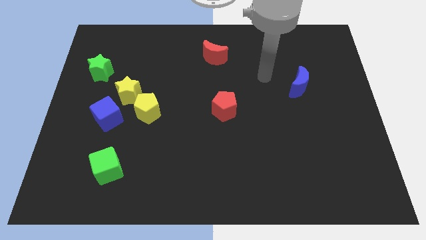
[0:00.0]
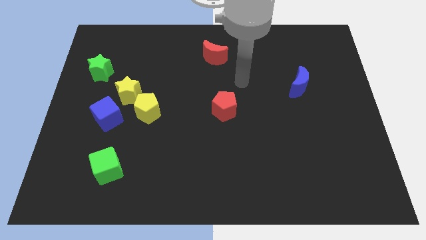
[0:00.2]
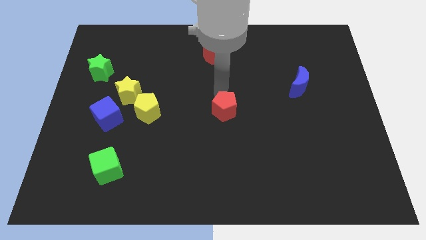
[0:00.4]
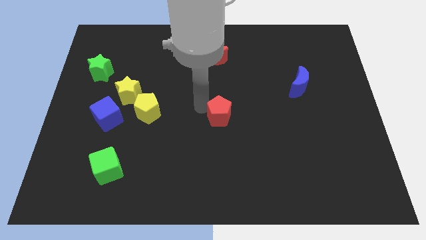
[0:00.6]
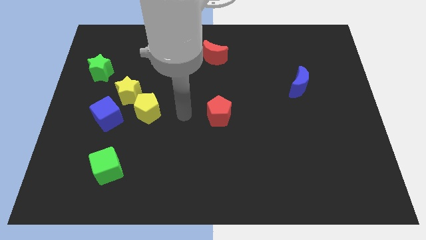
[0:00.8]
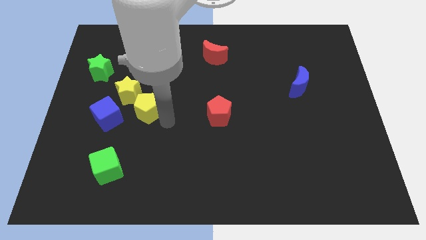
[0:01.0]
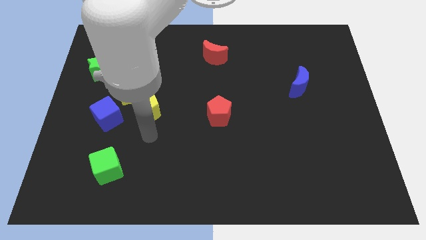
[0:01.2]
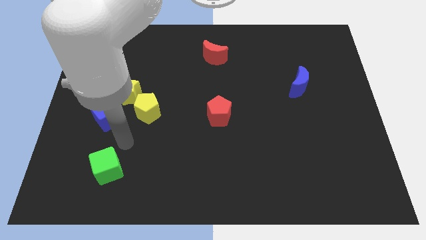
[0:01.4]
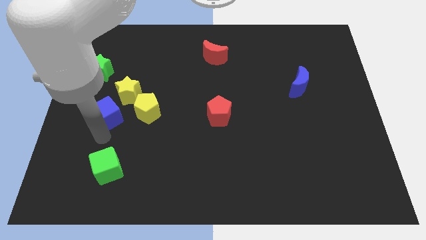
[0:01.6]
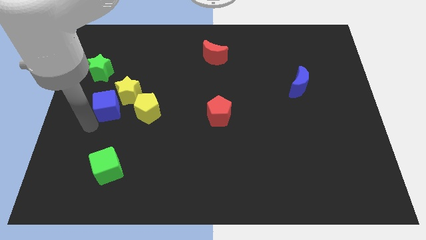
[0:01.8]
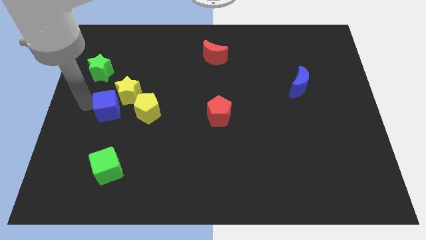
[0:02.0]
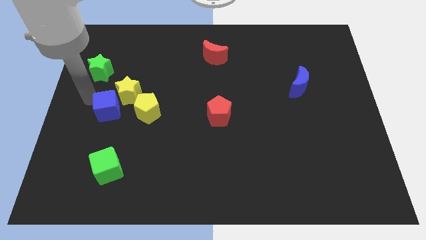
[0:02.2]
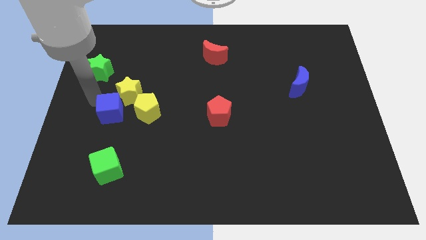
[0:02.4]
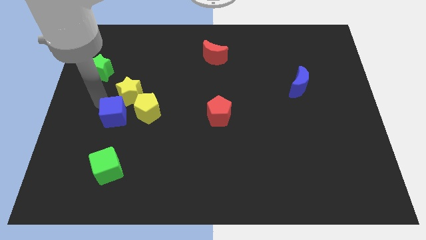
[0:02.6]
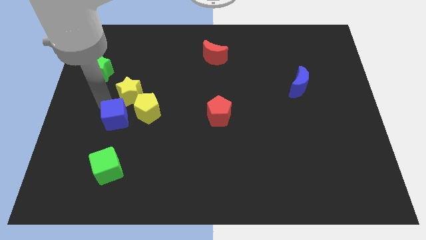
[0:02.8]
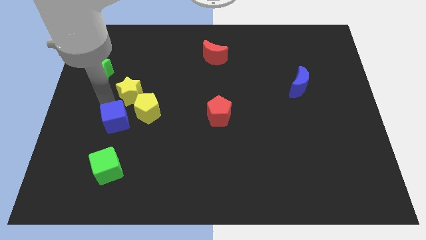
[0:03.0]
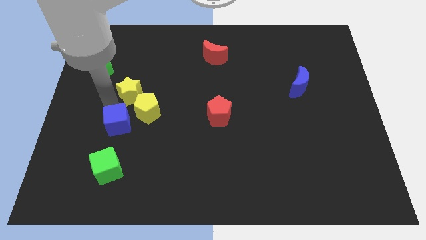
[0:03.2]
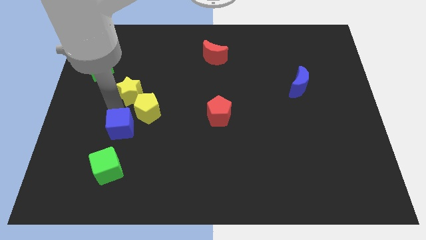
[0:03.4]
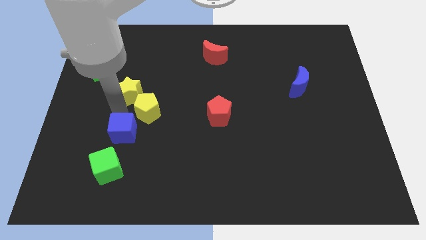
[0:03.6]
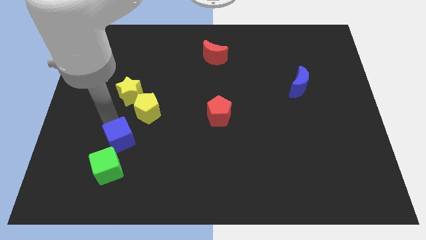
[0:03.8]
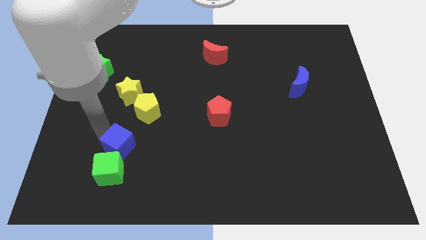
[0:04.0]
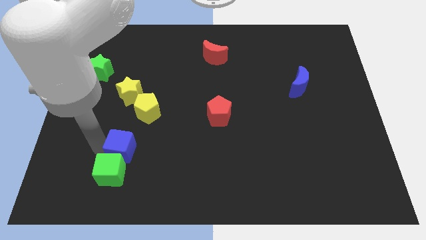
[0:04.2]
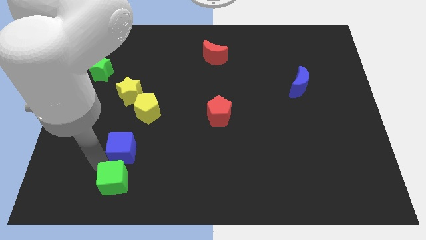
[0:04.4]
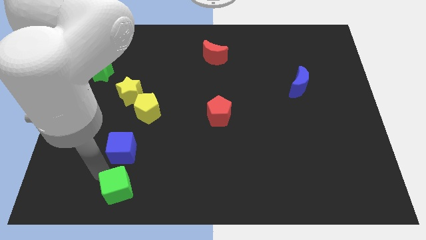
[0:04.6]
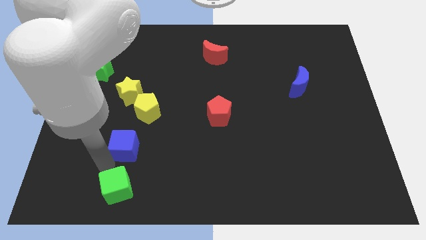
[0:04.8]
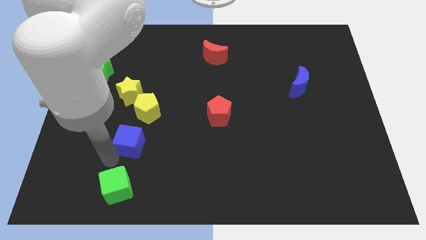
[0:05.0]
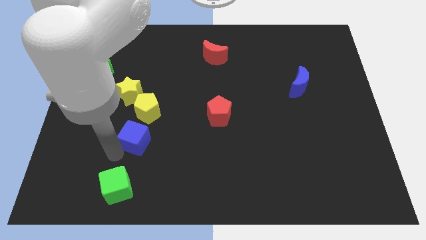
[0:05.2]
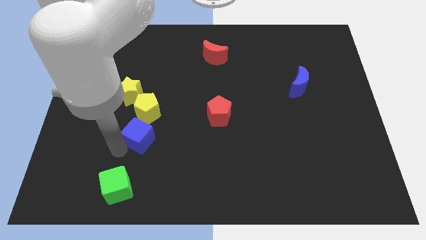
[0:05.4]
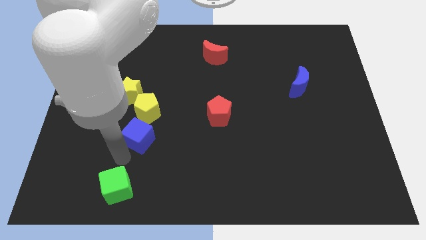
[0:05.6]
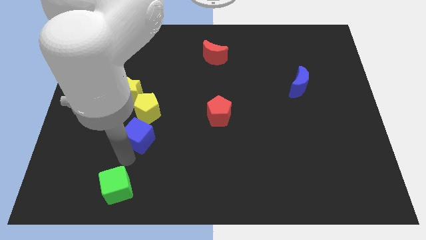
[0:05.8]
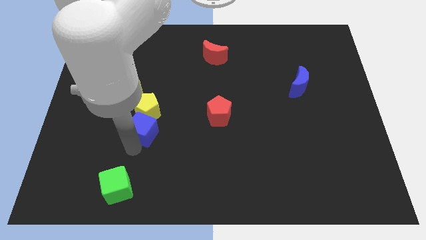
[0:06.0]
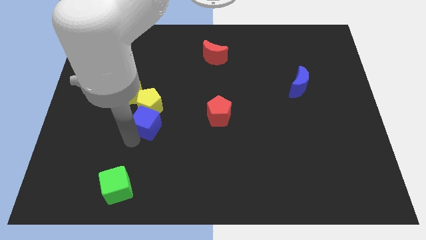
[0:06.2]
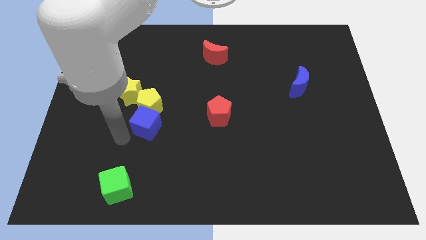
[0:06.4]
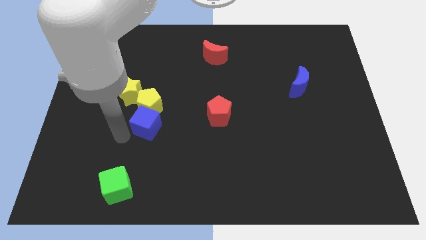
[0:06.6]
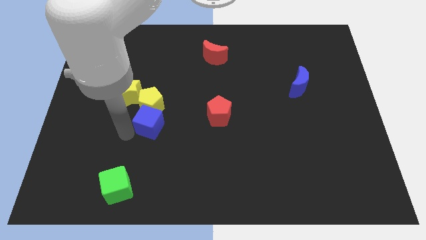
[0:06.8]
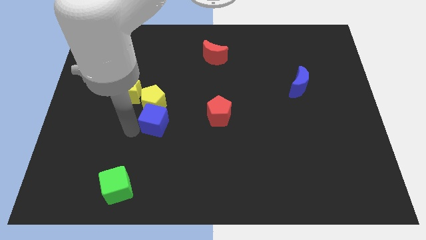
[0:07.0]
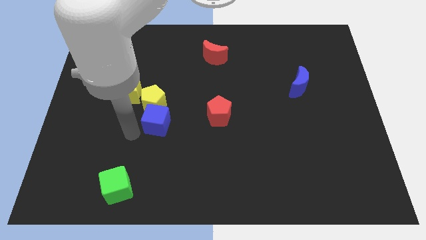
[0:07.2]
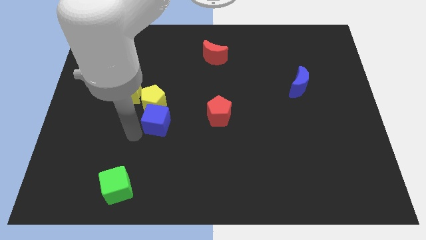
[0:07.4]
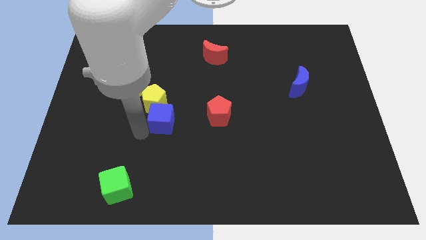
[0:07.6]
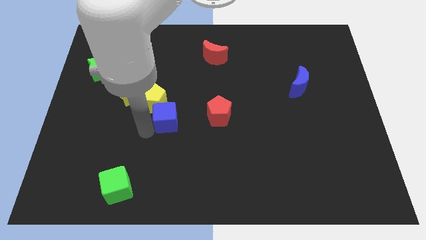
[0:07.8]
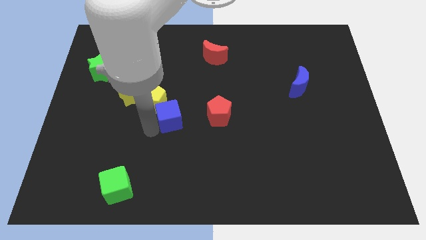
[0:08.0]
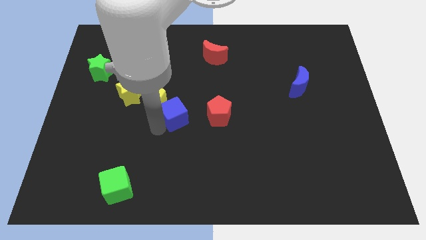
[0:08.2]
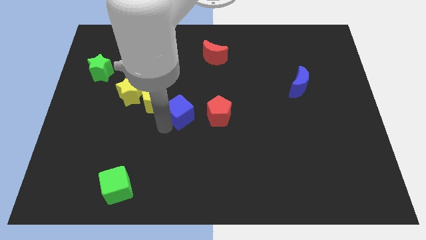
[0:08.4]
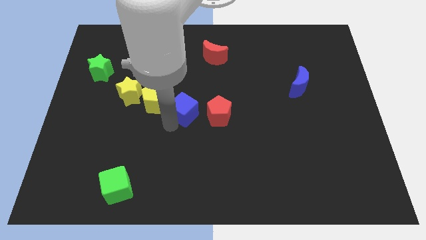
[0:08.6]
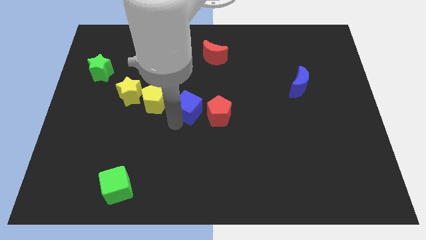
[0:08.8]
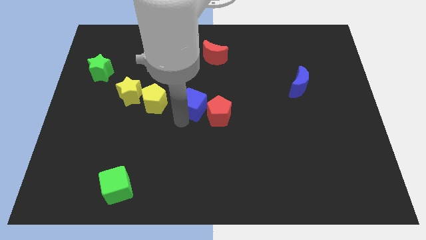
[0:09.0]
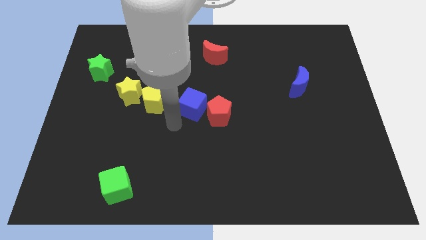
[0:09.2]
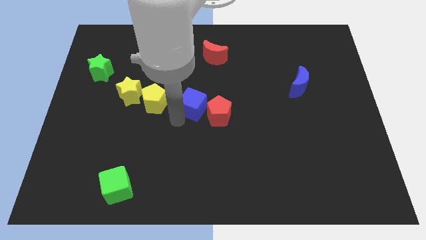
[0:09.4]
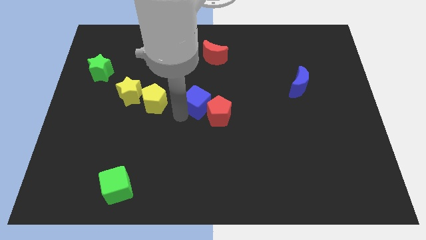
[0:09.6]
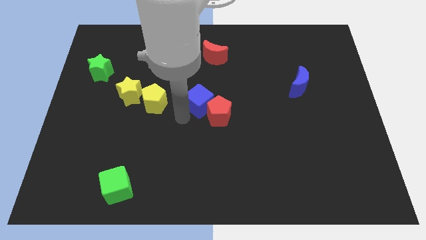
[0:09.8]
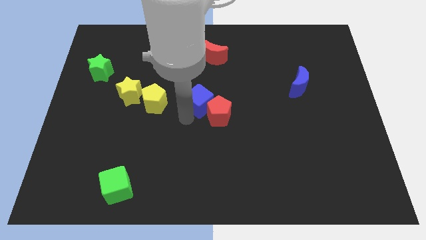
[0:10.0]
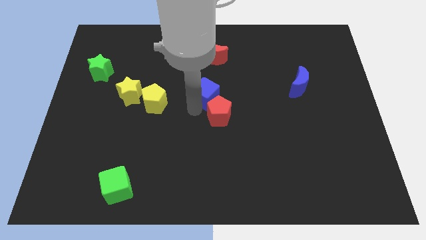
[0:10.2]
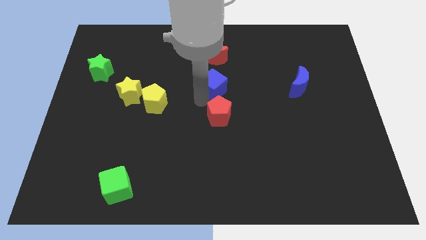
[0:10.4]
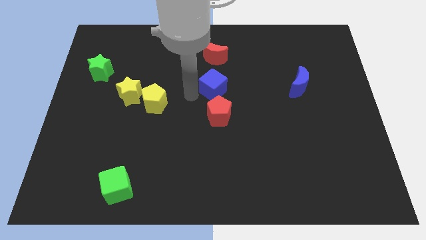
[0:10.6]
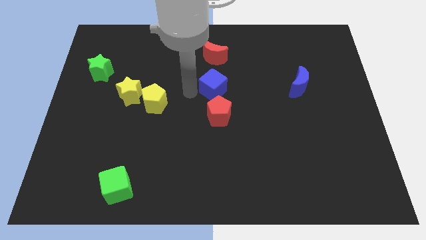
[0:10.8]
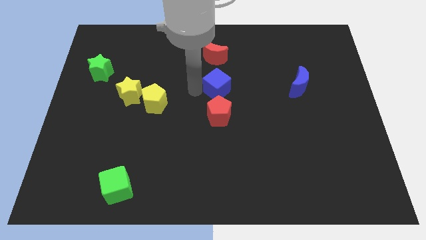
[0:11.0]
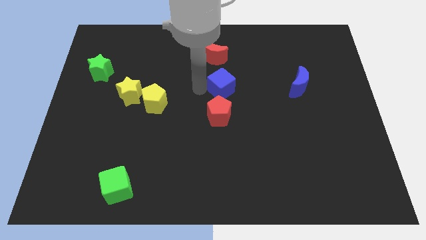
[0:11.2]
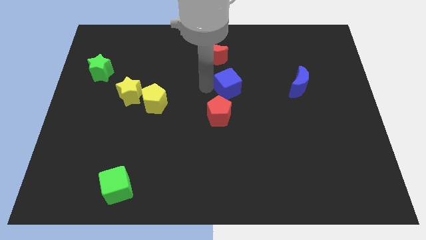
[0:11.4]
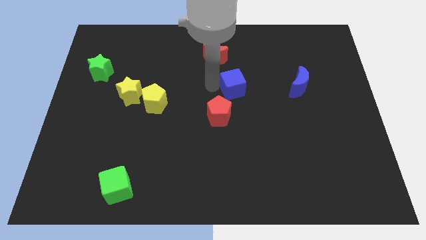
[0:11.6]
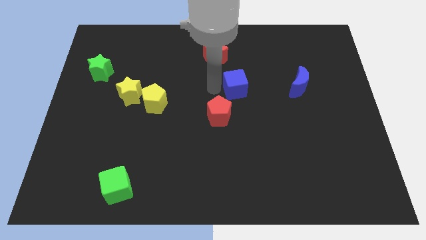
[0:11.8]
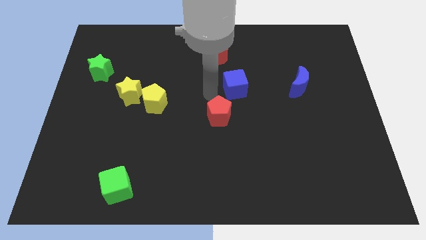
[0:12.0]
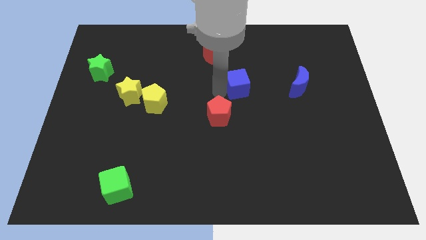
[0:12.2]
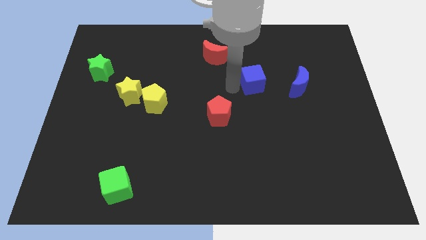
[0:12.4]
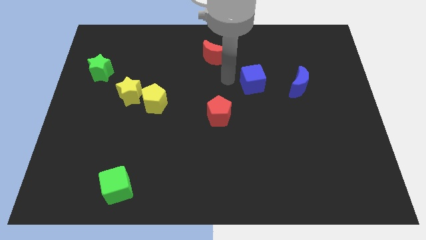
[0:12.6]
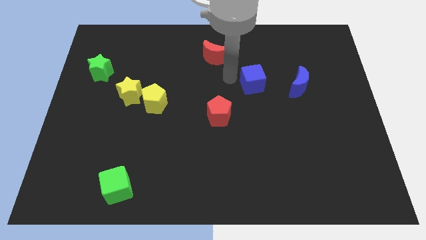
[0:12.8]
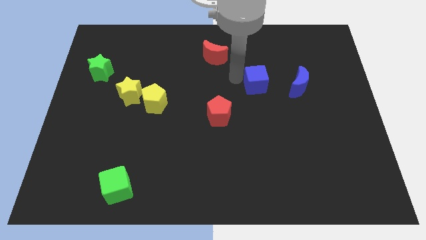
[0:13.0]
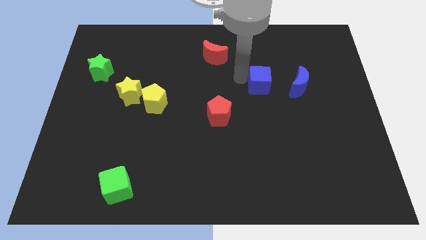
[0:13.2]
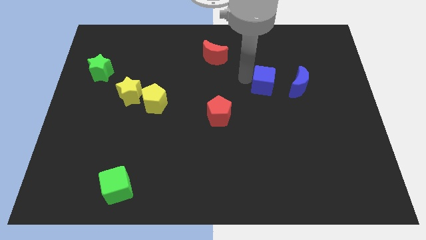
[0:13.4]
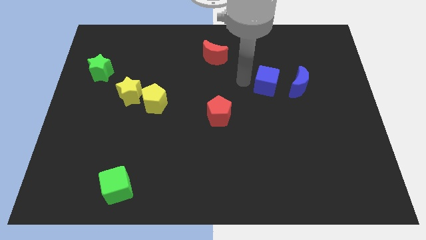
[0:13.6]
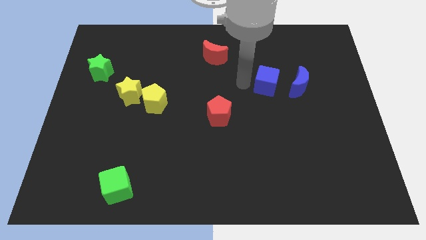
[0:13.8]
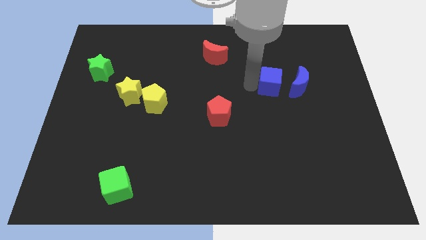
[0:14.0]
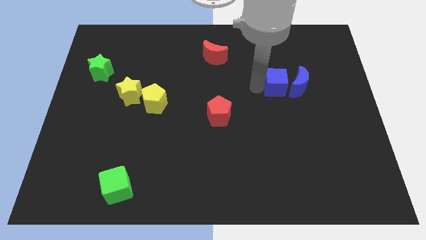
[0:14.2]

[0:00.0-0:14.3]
move the blue cube towards the blue moon
